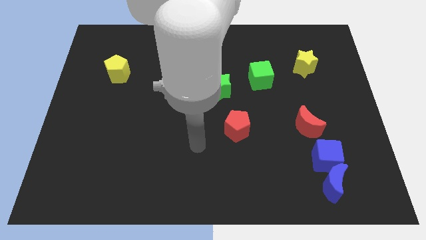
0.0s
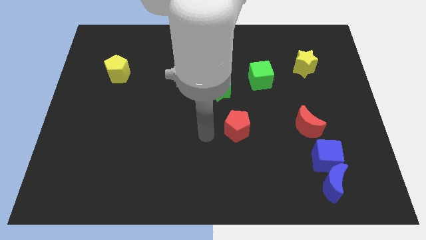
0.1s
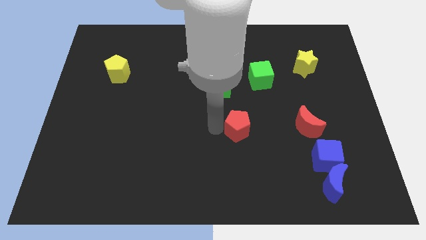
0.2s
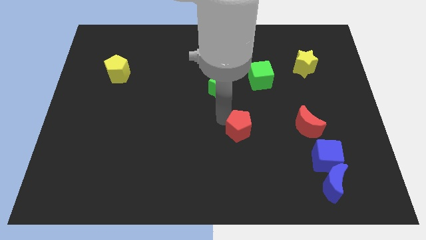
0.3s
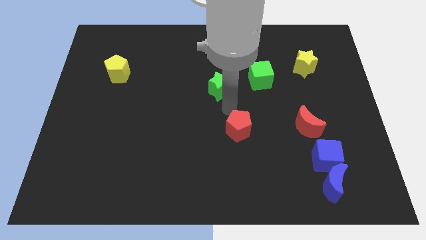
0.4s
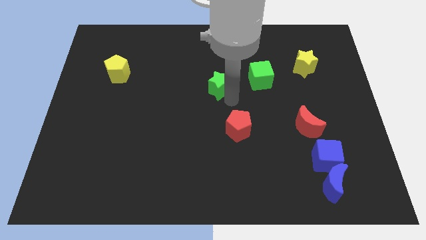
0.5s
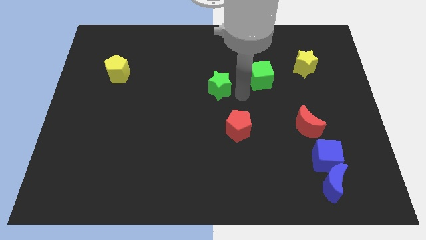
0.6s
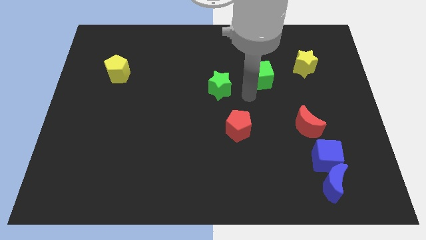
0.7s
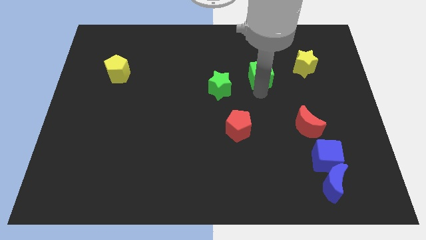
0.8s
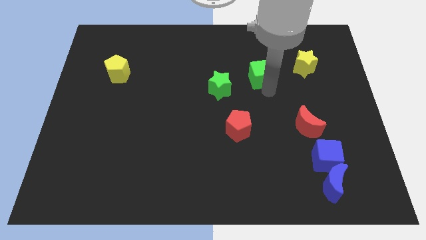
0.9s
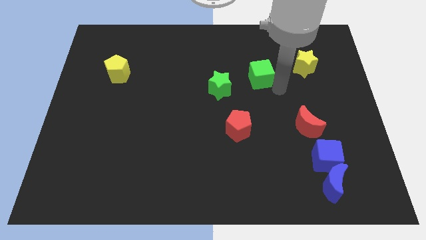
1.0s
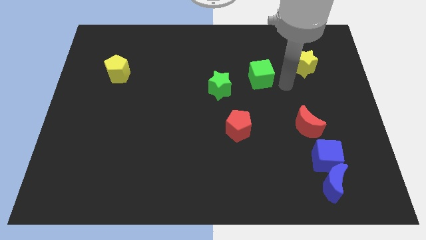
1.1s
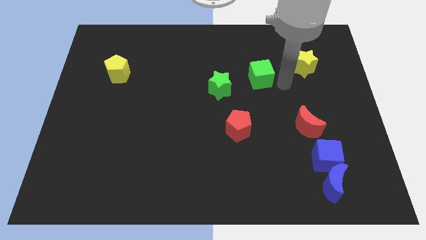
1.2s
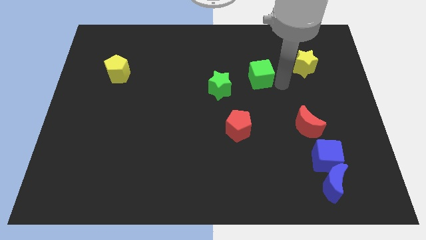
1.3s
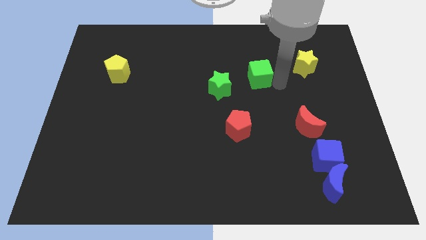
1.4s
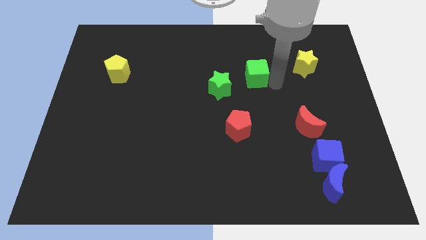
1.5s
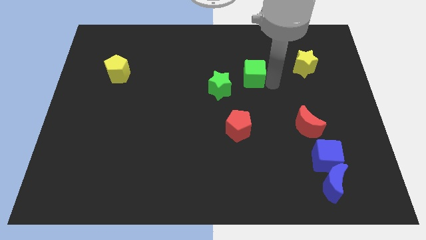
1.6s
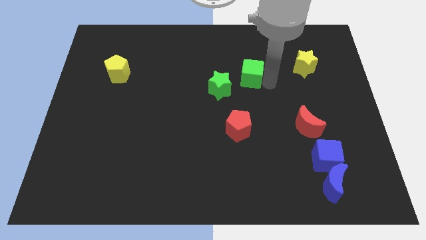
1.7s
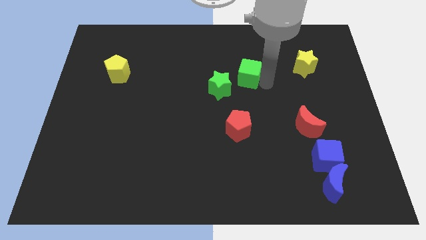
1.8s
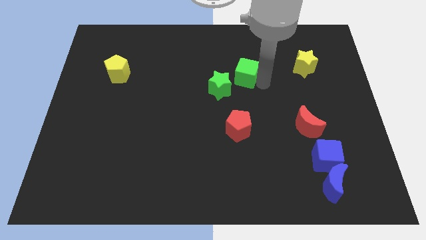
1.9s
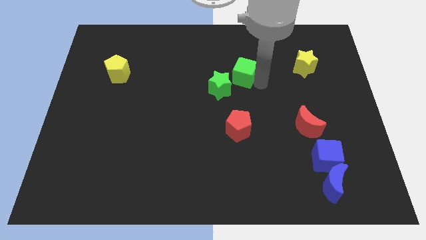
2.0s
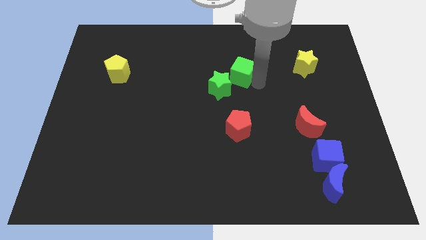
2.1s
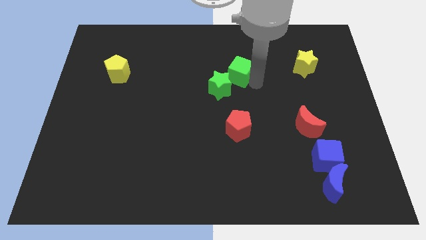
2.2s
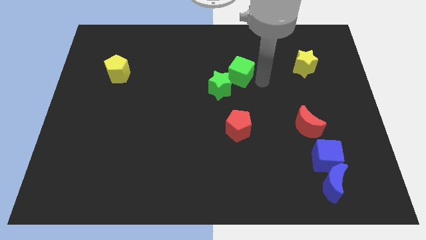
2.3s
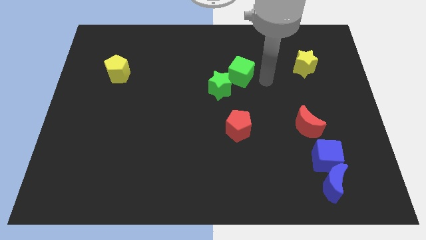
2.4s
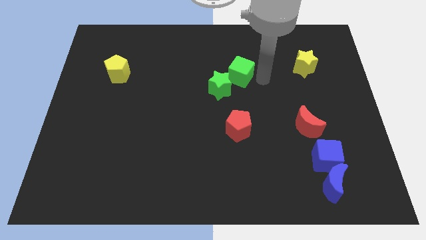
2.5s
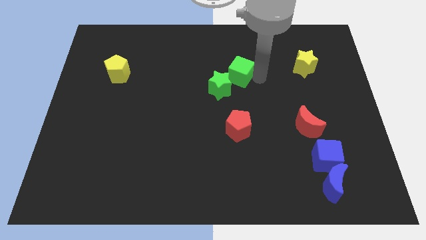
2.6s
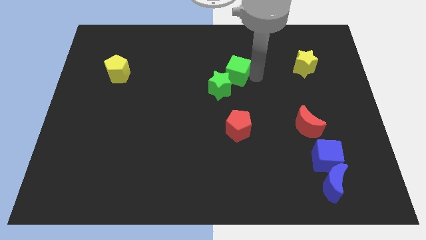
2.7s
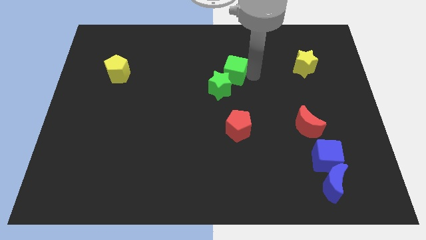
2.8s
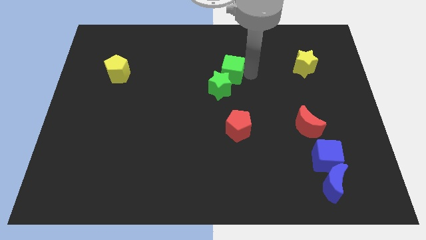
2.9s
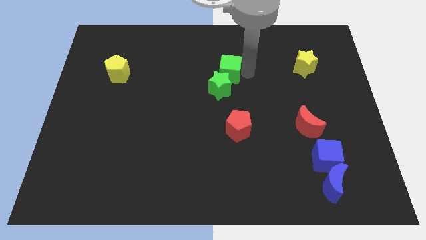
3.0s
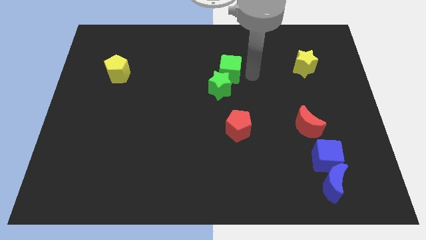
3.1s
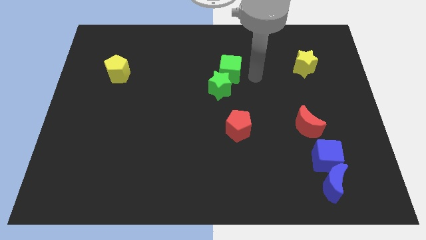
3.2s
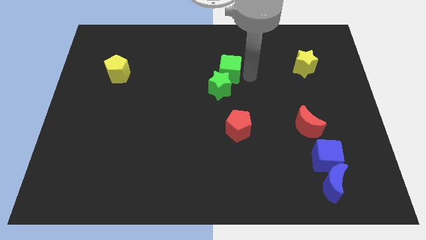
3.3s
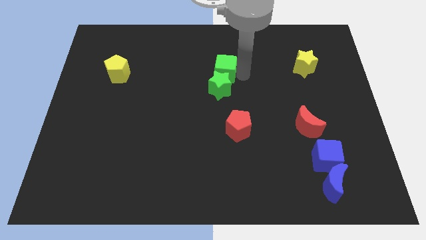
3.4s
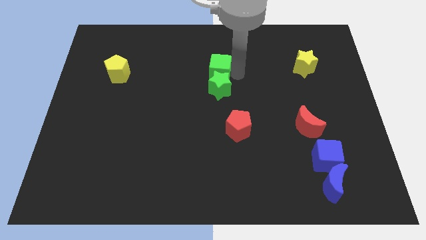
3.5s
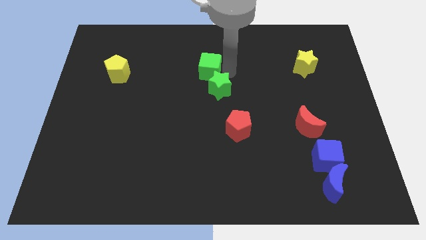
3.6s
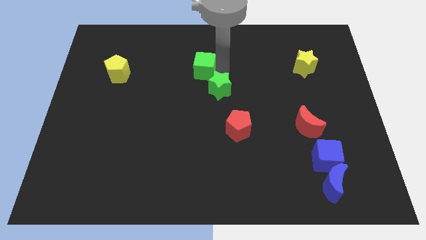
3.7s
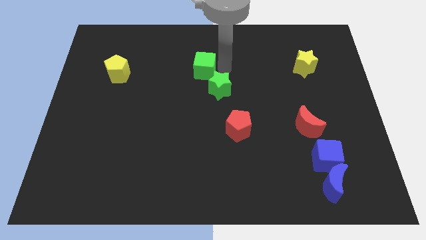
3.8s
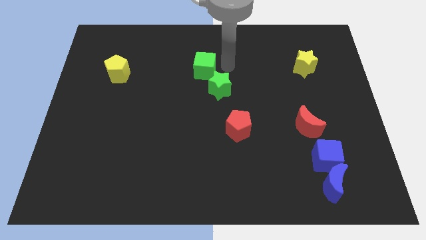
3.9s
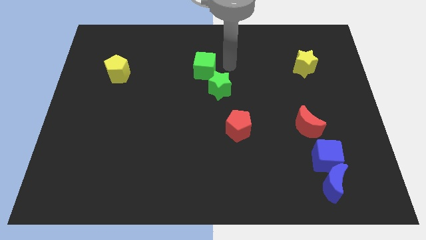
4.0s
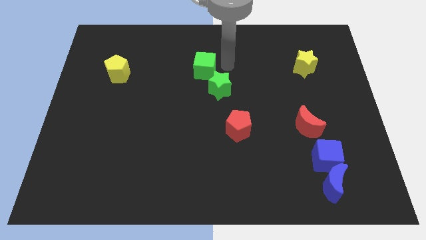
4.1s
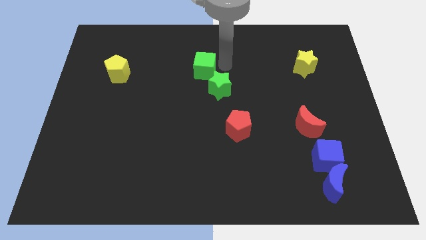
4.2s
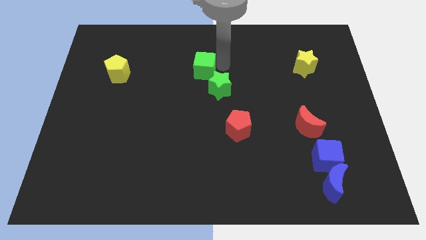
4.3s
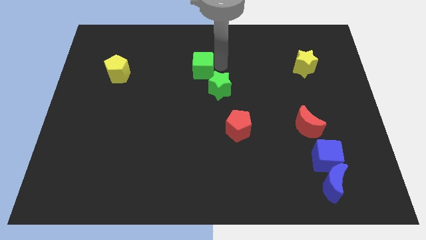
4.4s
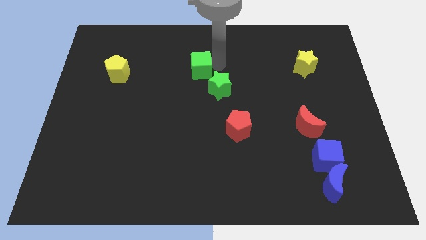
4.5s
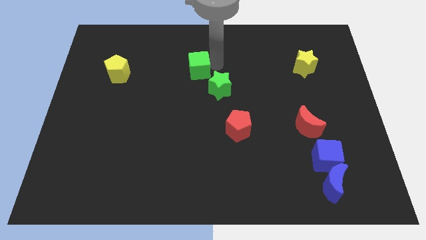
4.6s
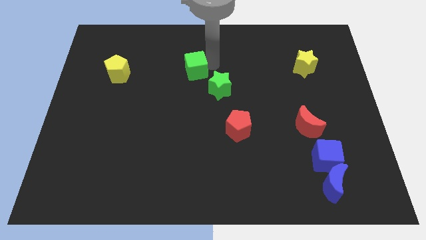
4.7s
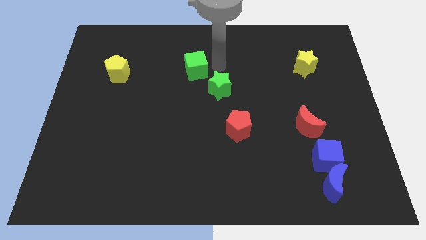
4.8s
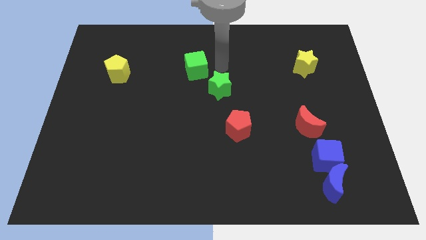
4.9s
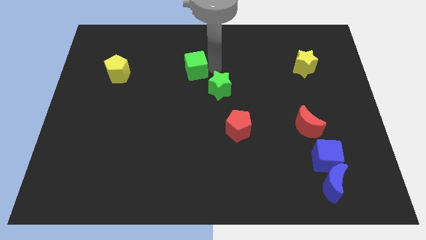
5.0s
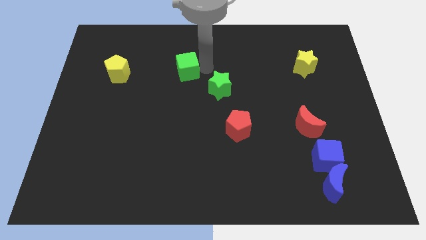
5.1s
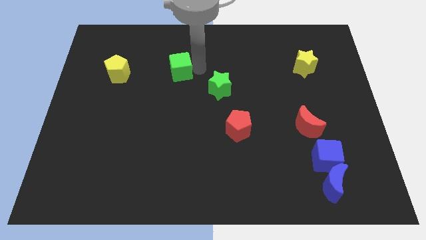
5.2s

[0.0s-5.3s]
push the green cube to the right of the yellow pentagon
